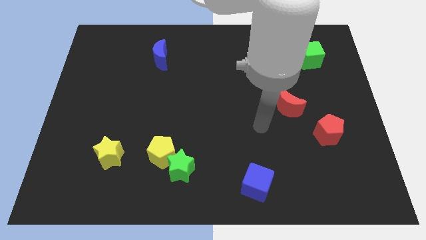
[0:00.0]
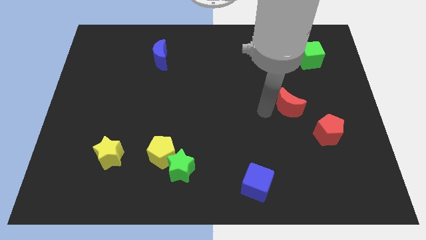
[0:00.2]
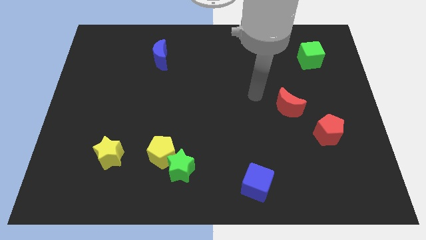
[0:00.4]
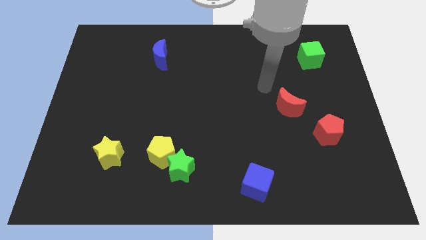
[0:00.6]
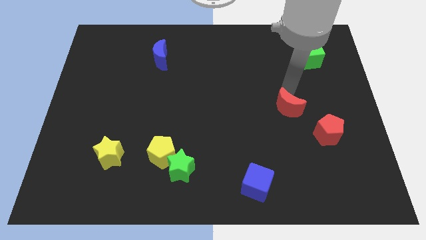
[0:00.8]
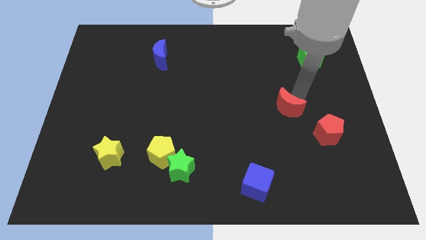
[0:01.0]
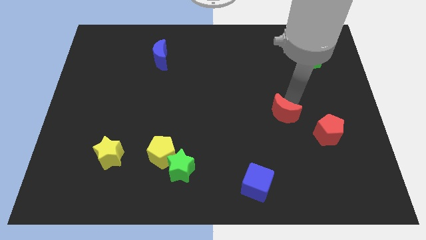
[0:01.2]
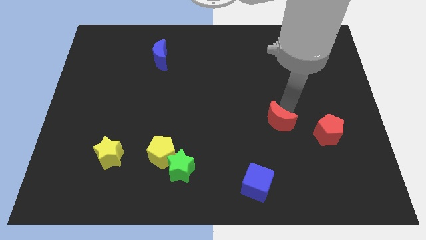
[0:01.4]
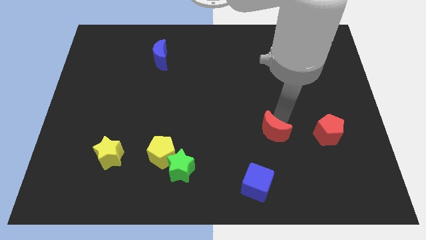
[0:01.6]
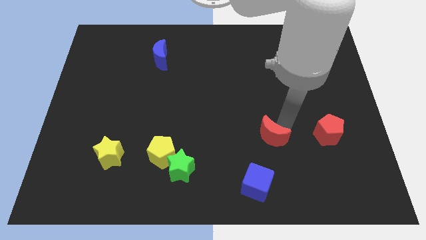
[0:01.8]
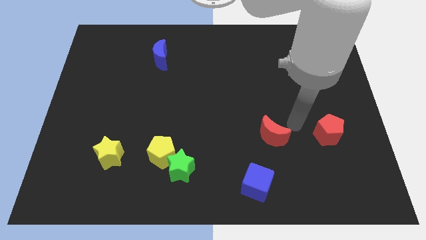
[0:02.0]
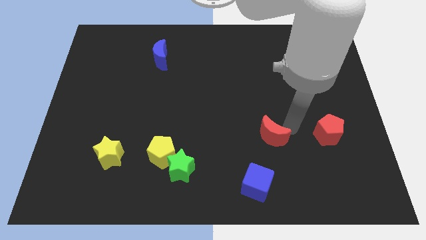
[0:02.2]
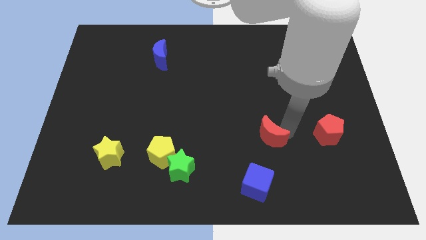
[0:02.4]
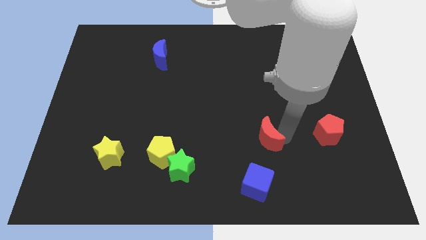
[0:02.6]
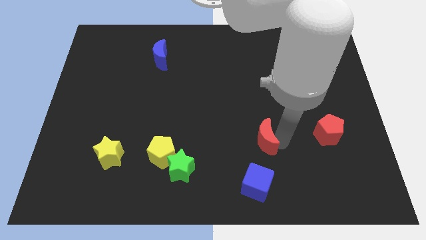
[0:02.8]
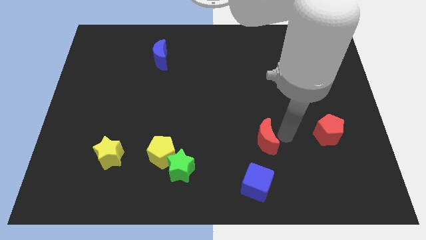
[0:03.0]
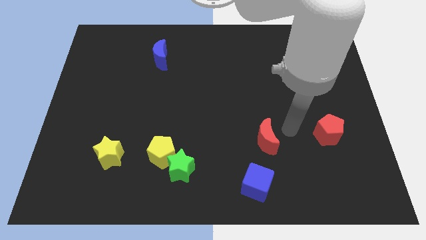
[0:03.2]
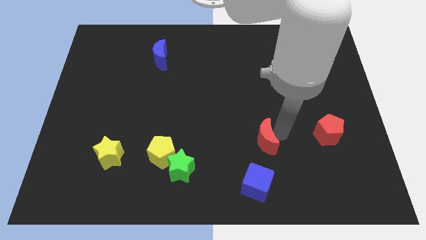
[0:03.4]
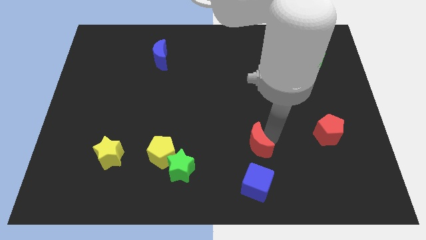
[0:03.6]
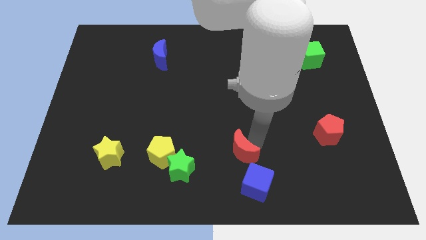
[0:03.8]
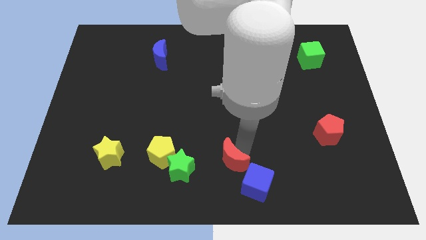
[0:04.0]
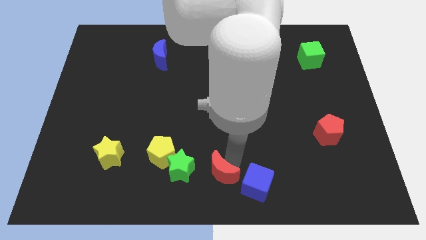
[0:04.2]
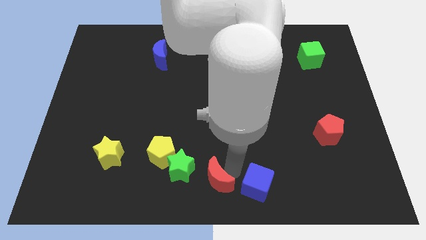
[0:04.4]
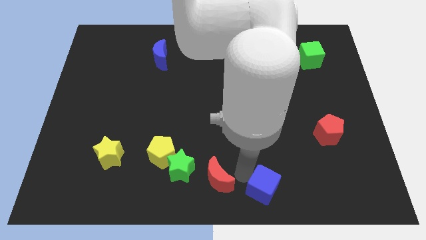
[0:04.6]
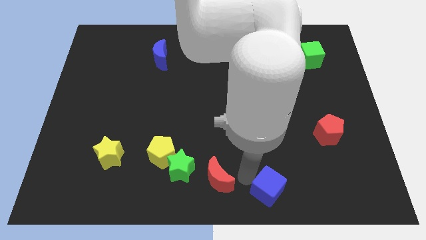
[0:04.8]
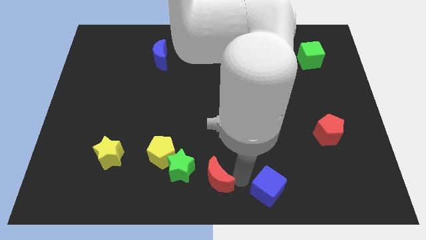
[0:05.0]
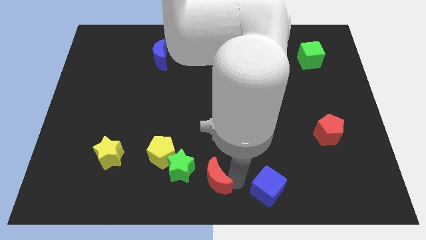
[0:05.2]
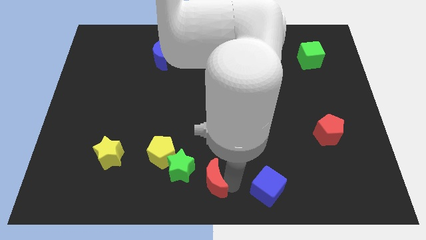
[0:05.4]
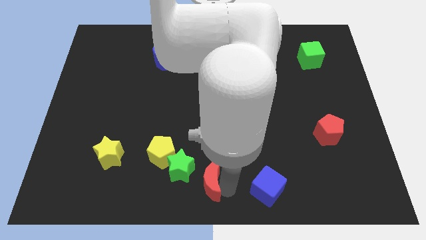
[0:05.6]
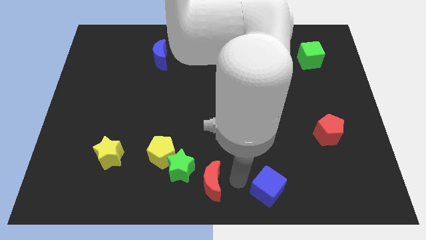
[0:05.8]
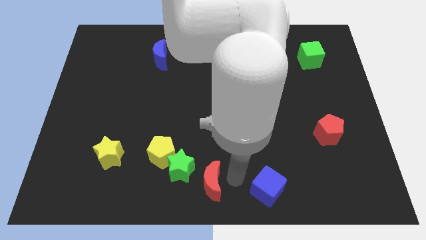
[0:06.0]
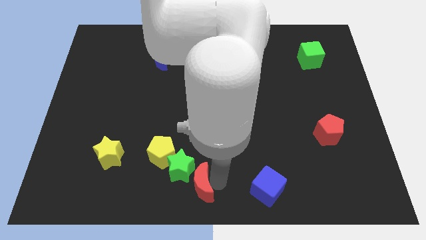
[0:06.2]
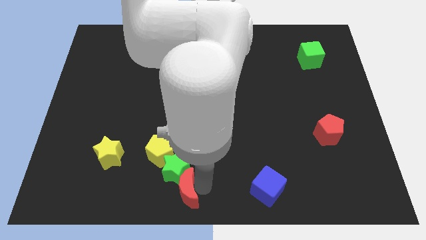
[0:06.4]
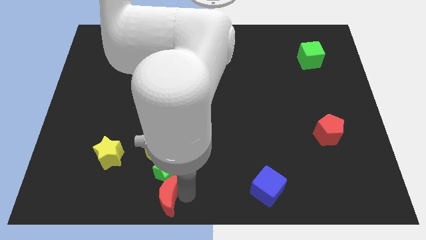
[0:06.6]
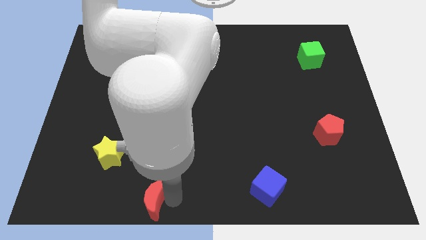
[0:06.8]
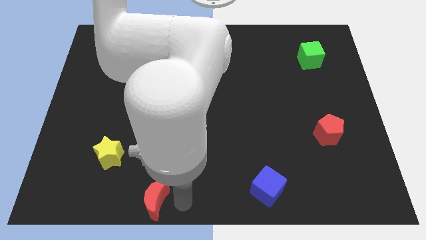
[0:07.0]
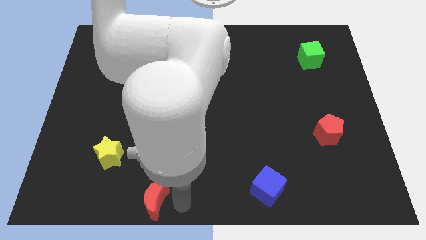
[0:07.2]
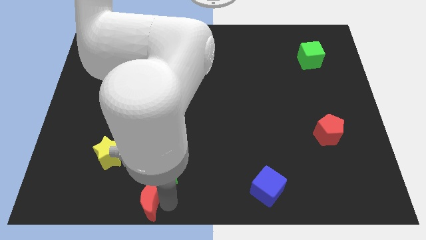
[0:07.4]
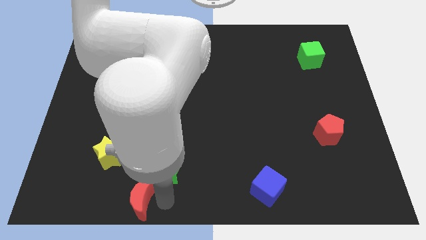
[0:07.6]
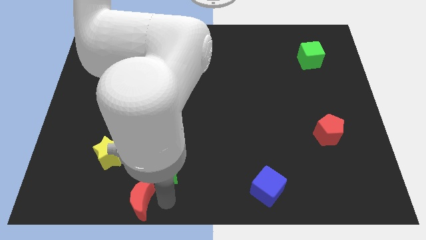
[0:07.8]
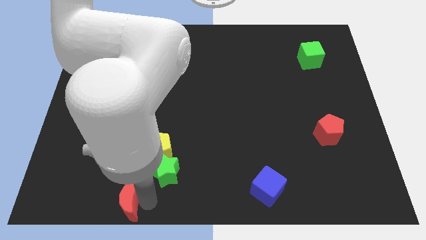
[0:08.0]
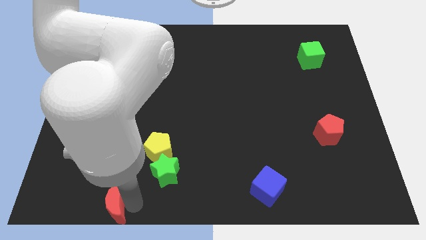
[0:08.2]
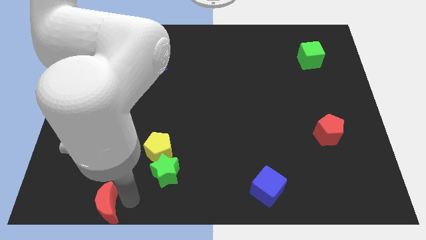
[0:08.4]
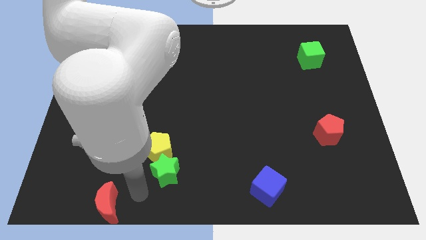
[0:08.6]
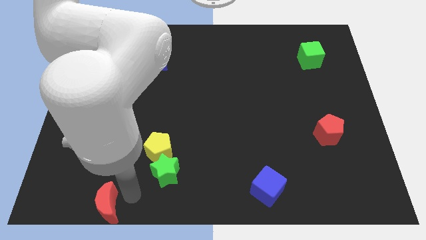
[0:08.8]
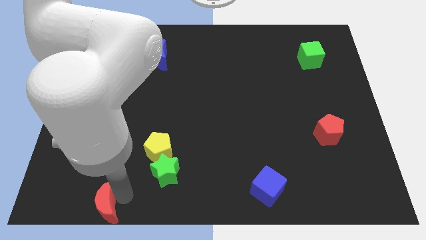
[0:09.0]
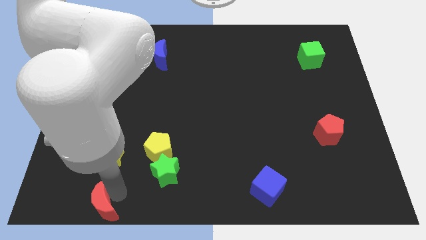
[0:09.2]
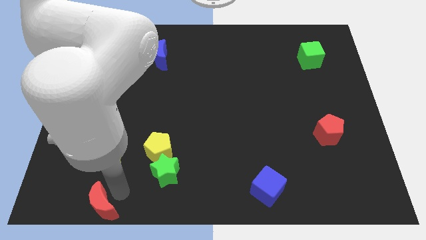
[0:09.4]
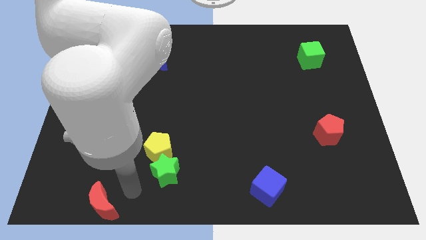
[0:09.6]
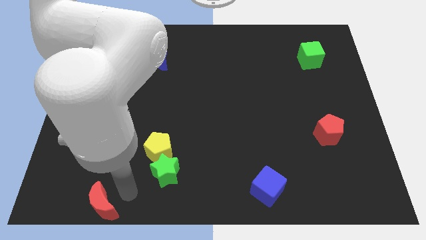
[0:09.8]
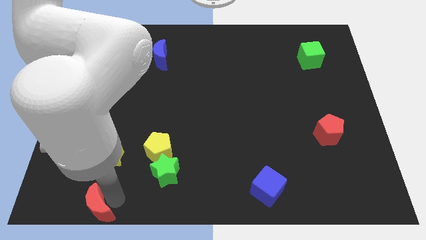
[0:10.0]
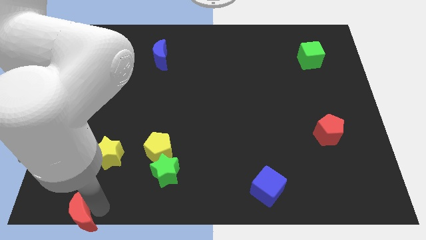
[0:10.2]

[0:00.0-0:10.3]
put the red moon to the bottom left

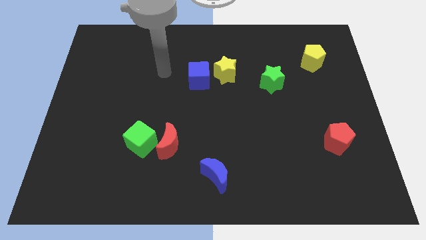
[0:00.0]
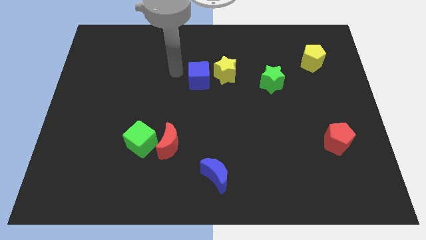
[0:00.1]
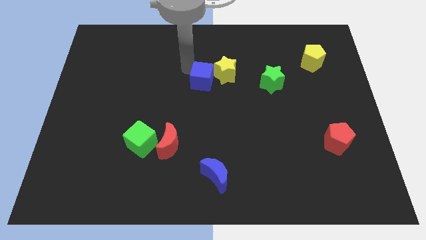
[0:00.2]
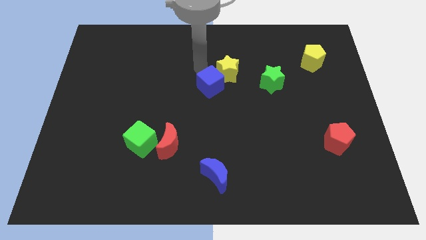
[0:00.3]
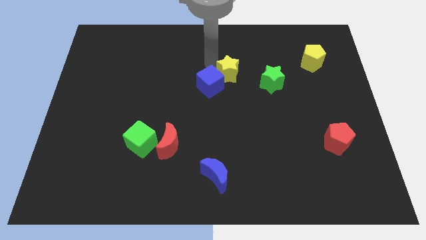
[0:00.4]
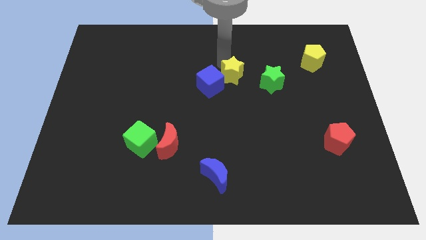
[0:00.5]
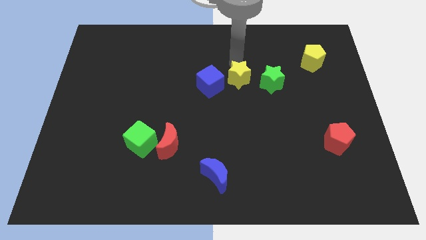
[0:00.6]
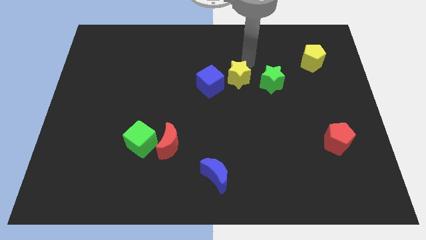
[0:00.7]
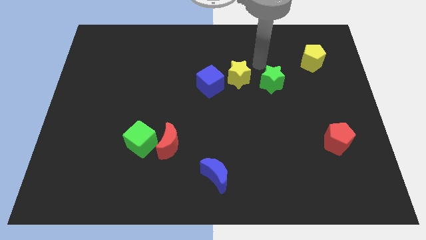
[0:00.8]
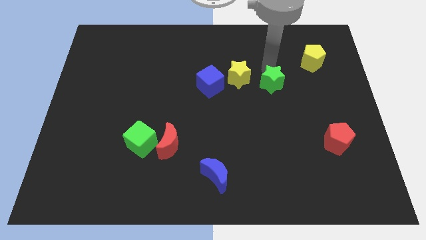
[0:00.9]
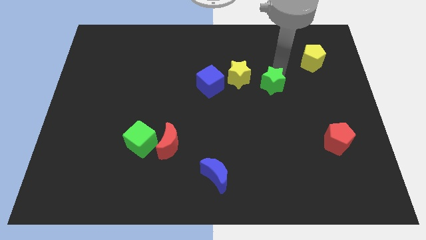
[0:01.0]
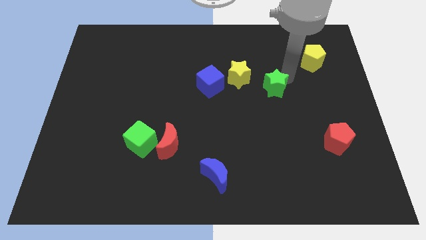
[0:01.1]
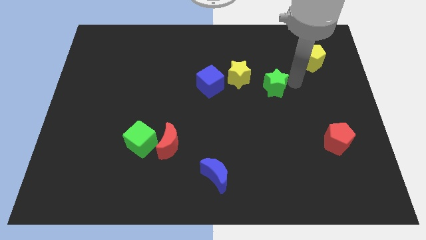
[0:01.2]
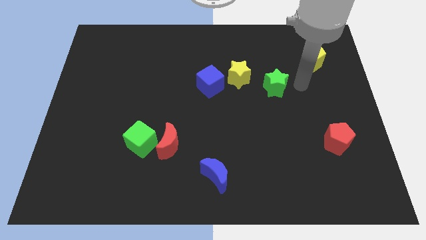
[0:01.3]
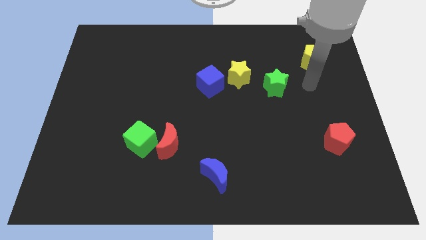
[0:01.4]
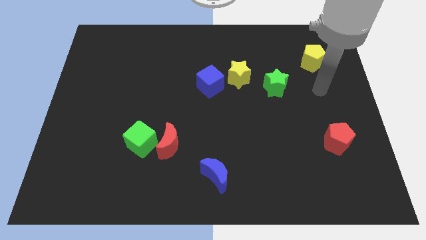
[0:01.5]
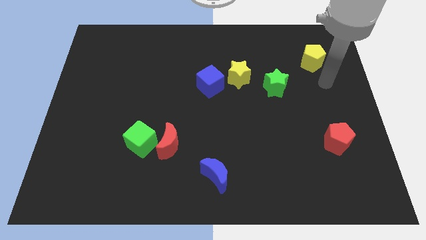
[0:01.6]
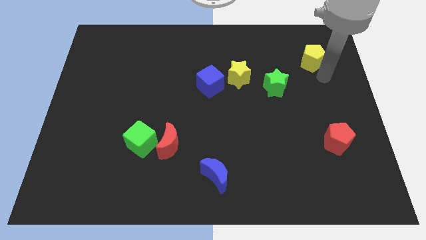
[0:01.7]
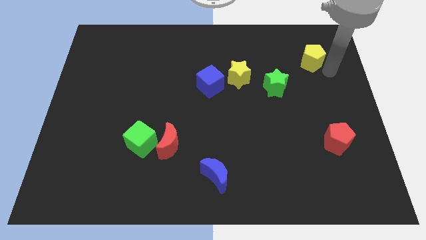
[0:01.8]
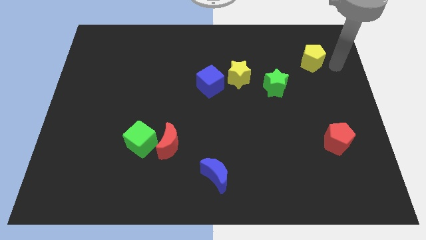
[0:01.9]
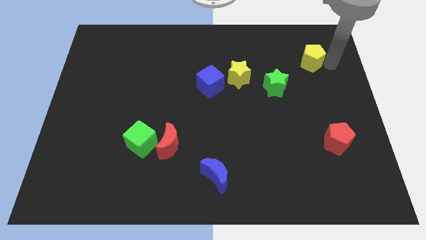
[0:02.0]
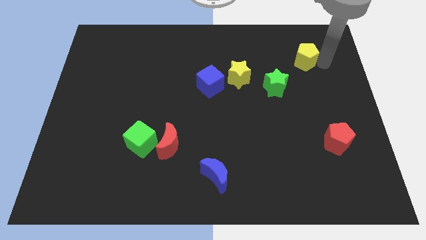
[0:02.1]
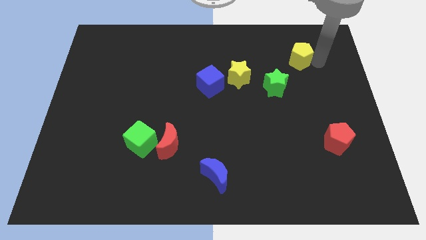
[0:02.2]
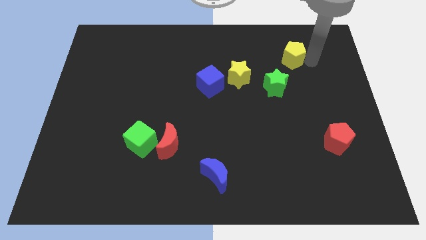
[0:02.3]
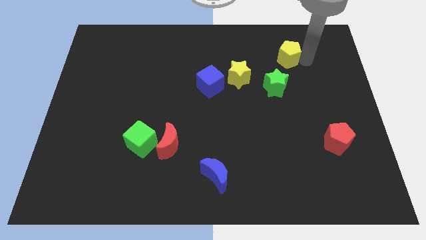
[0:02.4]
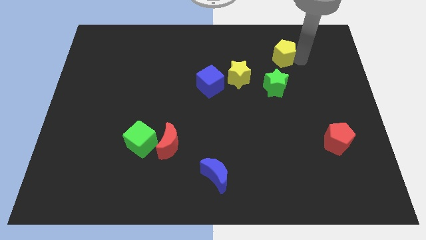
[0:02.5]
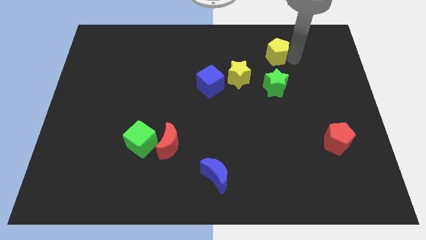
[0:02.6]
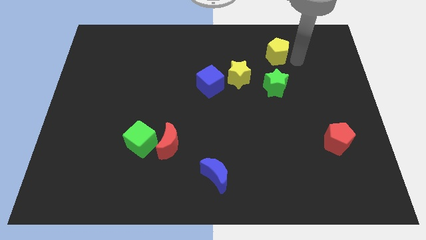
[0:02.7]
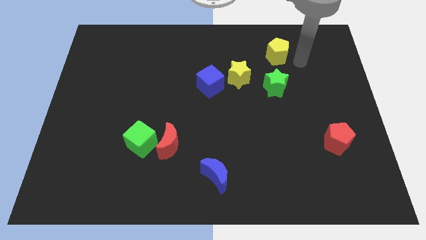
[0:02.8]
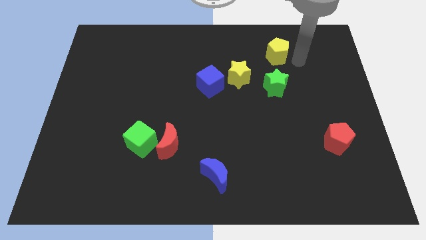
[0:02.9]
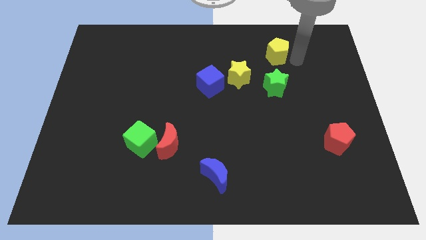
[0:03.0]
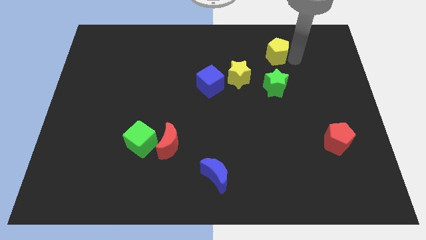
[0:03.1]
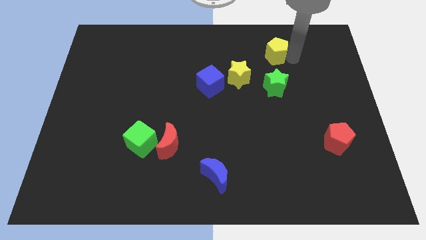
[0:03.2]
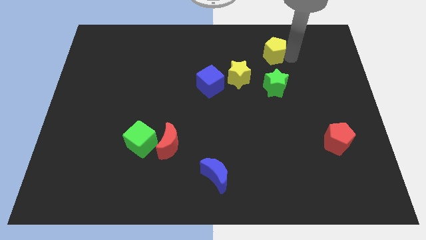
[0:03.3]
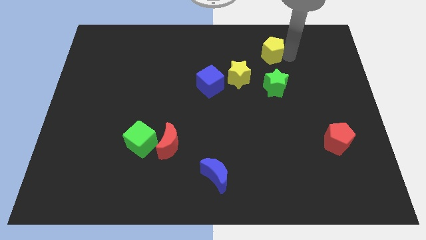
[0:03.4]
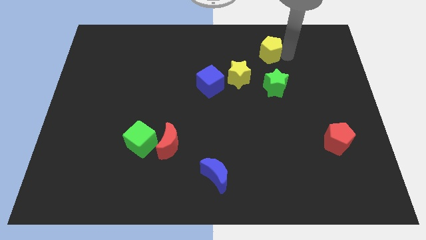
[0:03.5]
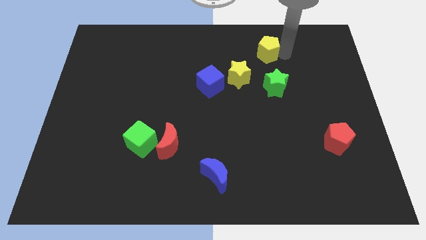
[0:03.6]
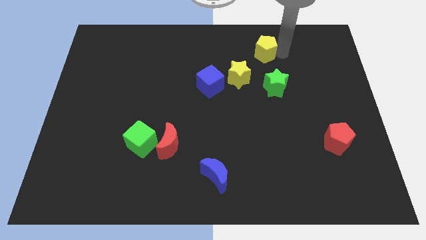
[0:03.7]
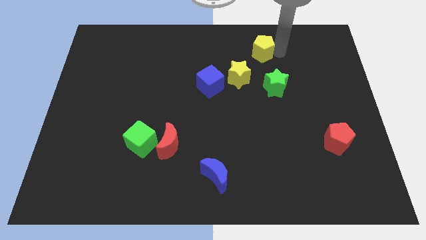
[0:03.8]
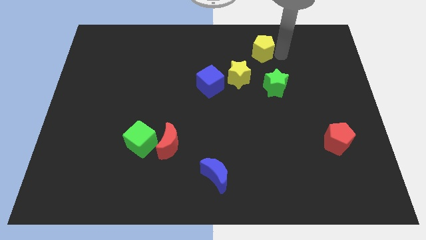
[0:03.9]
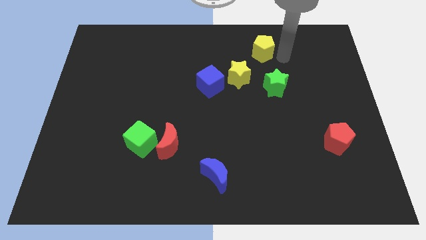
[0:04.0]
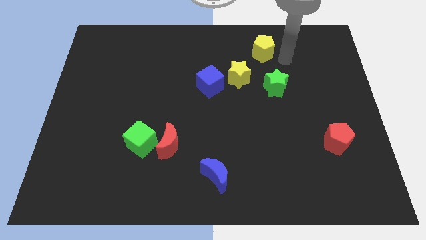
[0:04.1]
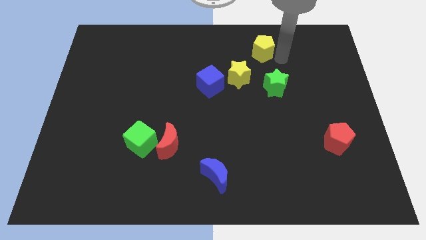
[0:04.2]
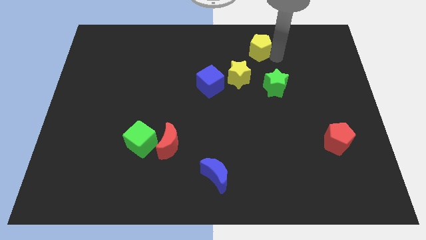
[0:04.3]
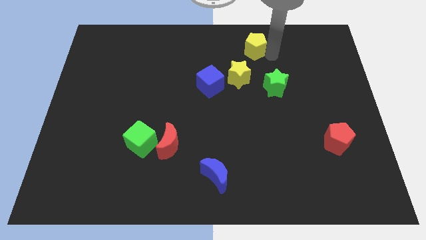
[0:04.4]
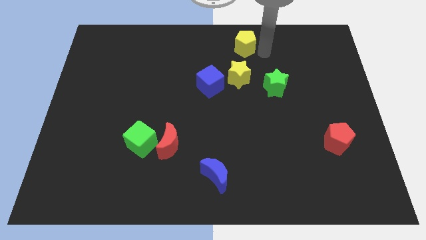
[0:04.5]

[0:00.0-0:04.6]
slide the yellow pentagon to the top
